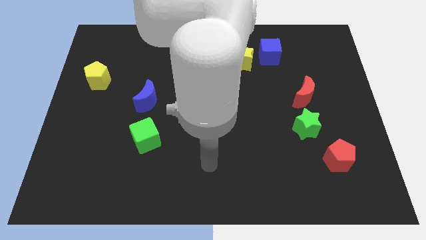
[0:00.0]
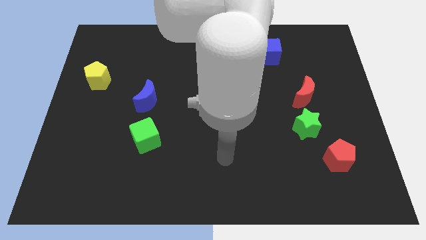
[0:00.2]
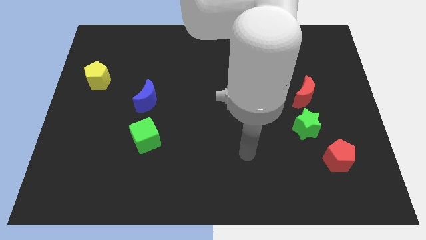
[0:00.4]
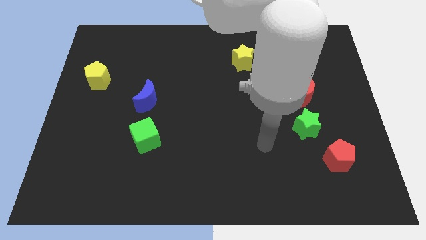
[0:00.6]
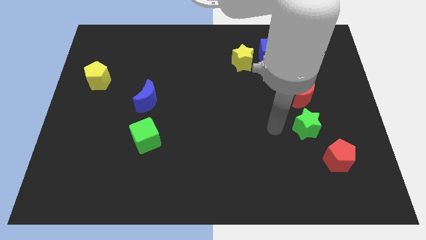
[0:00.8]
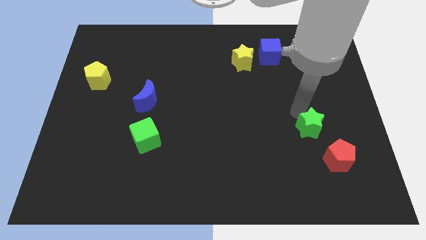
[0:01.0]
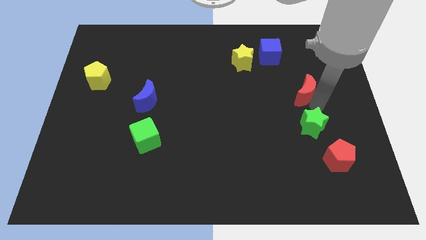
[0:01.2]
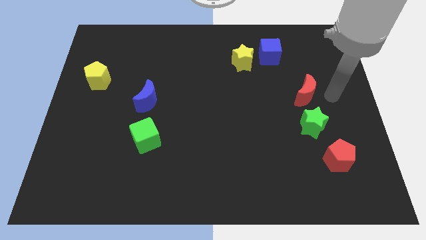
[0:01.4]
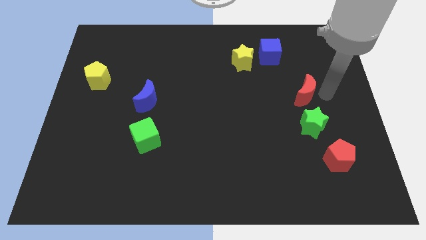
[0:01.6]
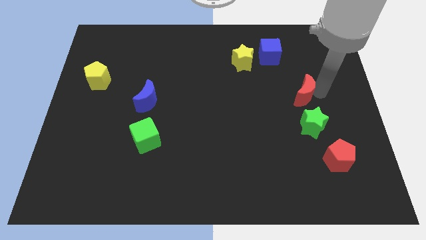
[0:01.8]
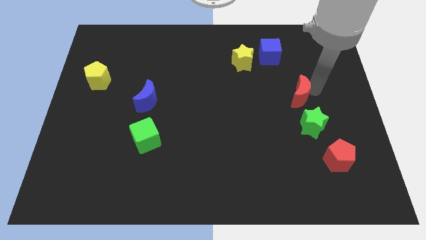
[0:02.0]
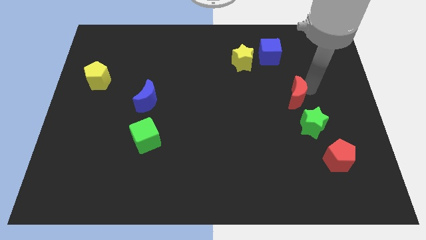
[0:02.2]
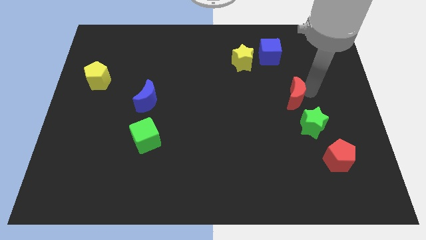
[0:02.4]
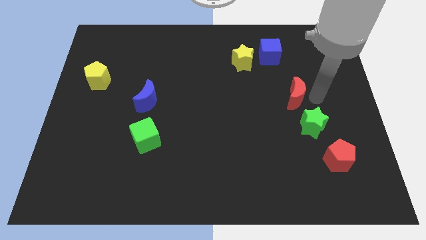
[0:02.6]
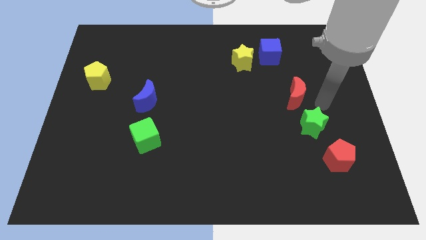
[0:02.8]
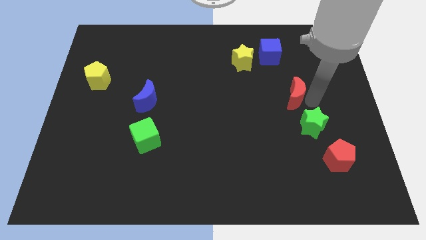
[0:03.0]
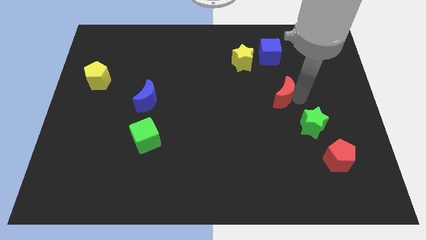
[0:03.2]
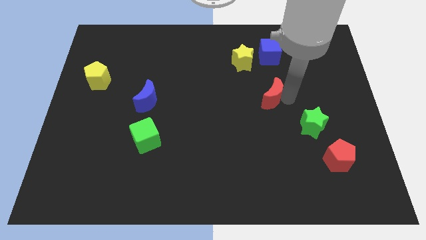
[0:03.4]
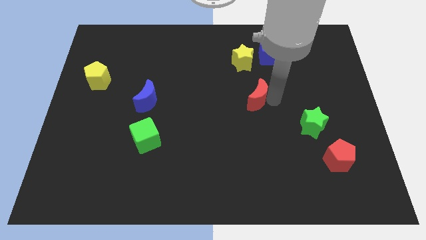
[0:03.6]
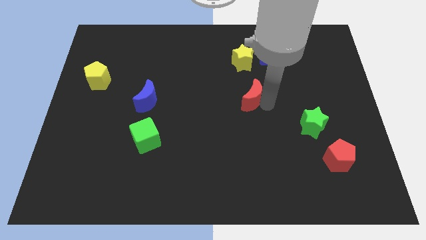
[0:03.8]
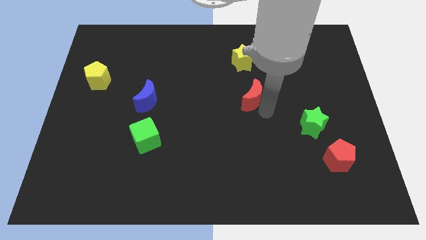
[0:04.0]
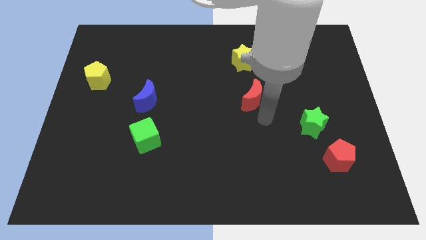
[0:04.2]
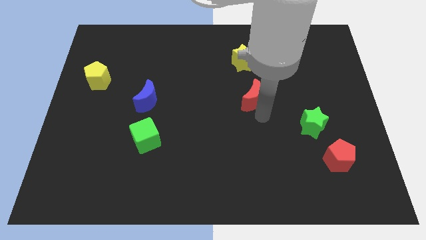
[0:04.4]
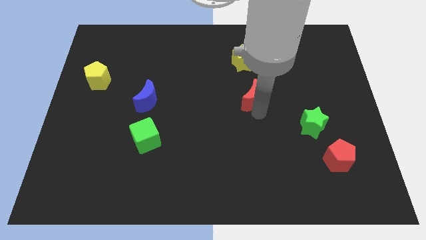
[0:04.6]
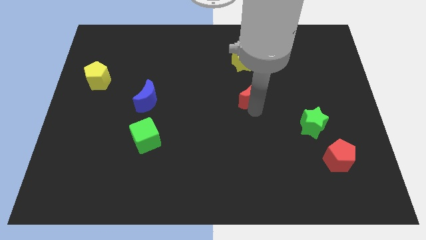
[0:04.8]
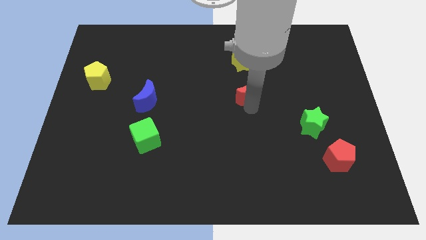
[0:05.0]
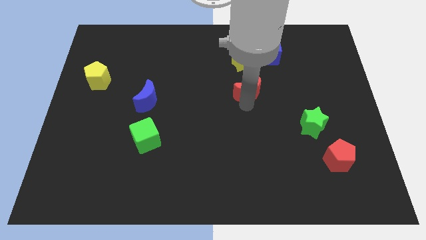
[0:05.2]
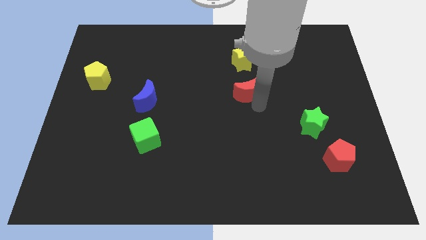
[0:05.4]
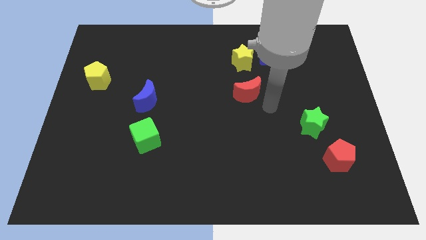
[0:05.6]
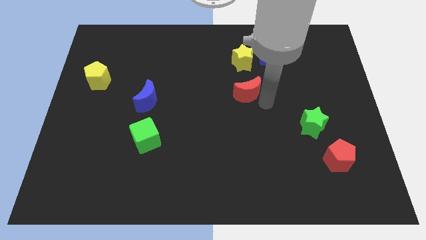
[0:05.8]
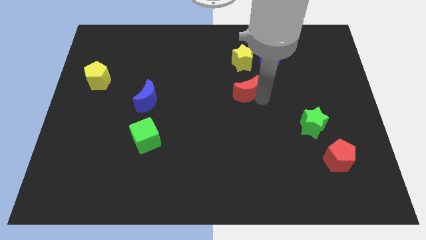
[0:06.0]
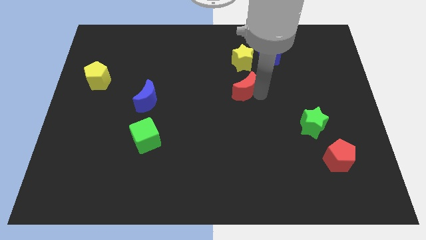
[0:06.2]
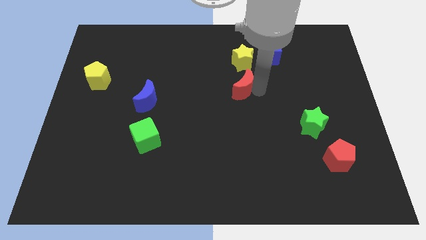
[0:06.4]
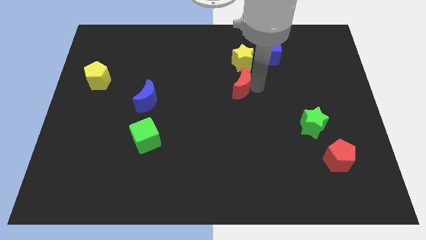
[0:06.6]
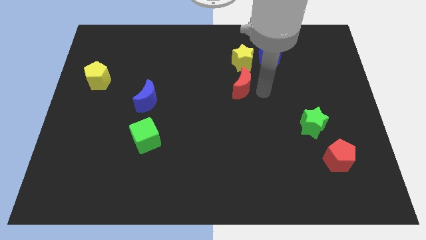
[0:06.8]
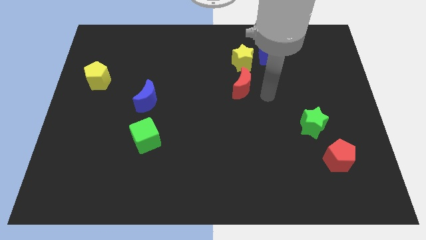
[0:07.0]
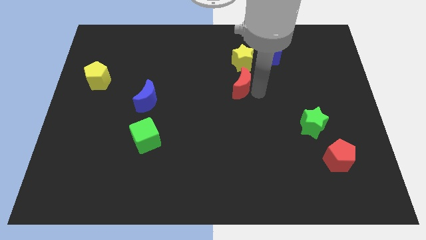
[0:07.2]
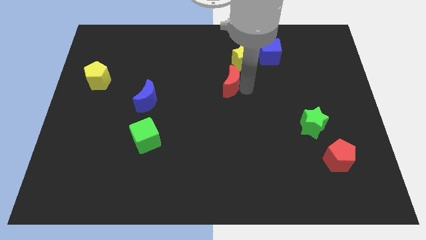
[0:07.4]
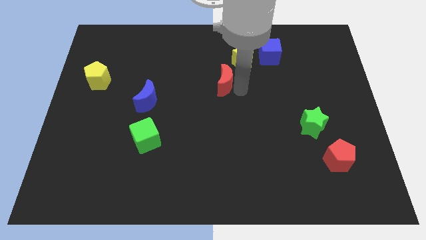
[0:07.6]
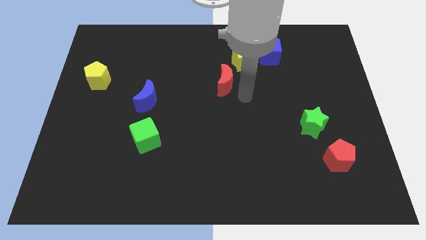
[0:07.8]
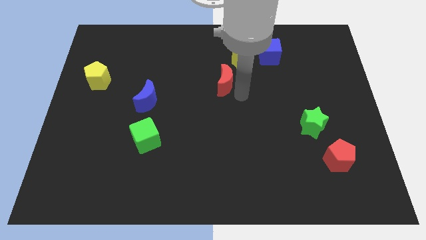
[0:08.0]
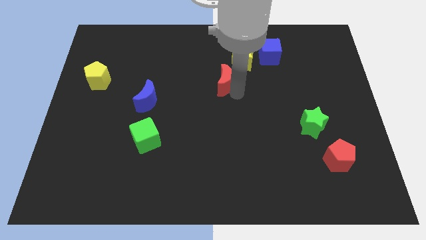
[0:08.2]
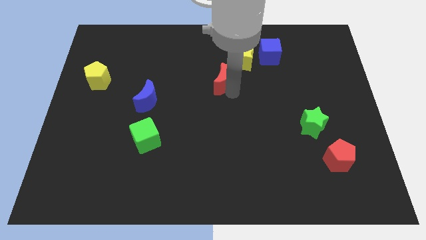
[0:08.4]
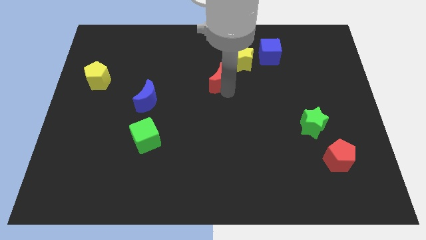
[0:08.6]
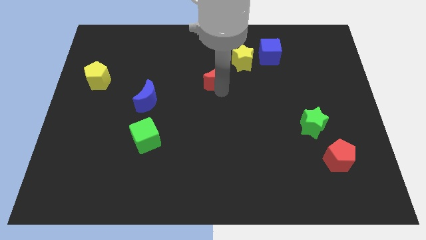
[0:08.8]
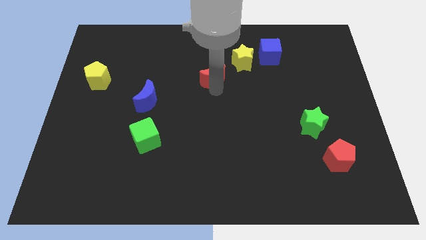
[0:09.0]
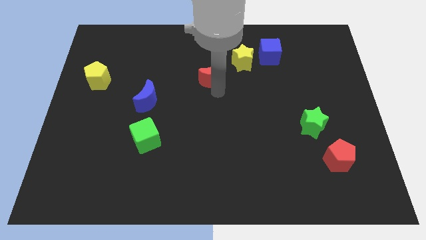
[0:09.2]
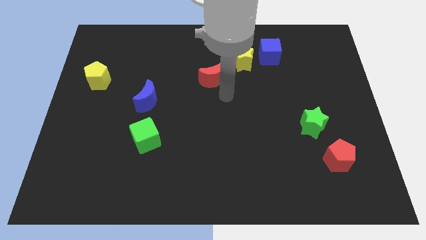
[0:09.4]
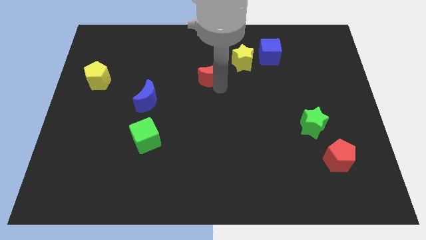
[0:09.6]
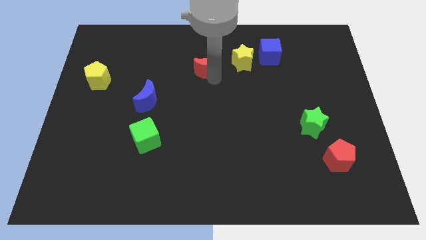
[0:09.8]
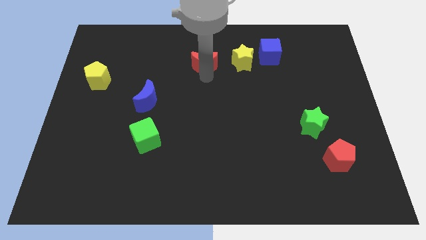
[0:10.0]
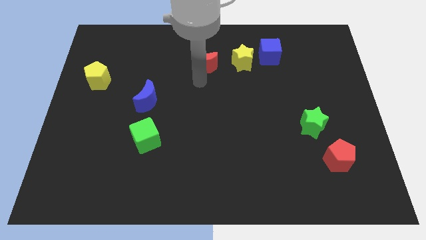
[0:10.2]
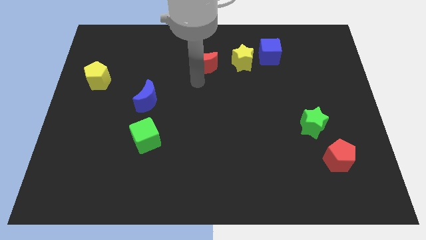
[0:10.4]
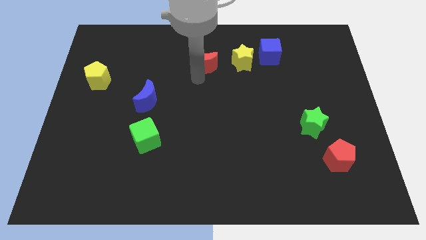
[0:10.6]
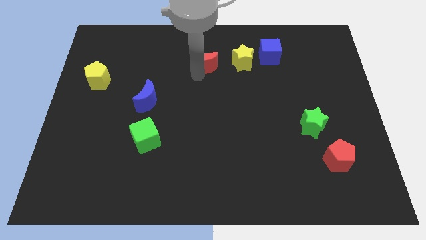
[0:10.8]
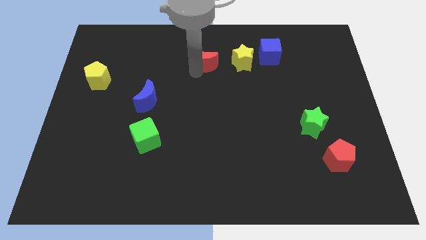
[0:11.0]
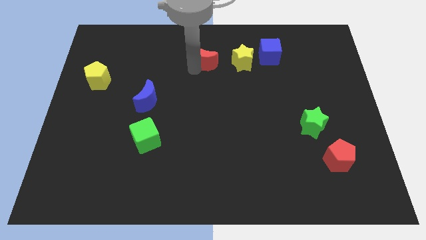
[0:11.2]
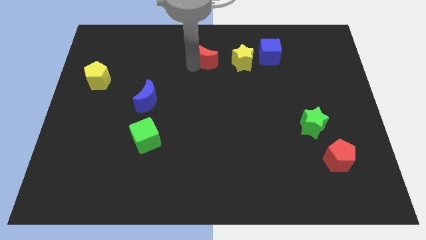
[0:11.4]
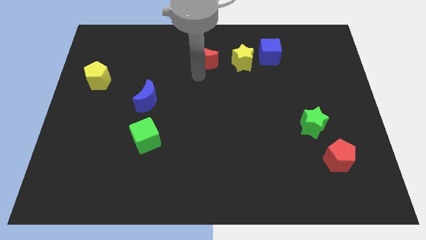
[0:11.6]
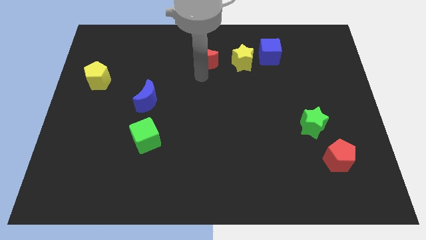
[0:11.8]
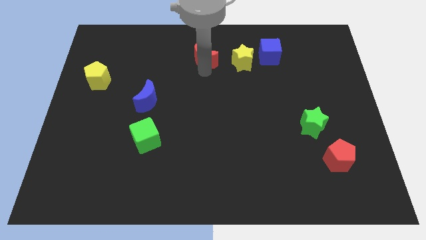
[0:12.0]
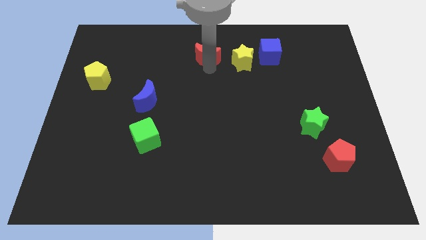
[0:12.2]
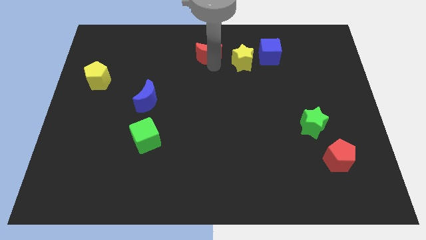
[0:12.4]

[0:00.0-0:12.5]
put the red moon to the top
